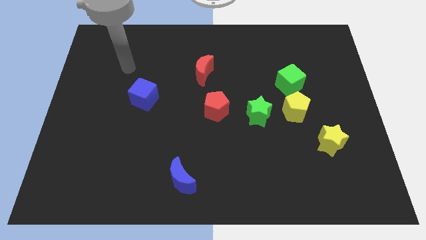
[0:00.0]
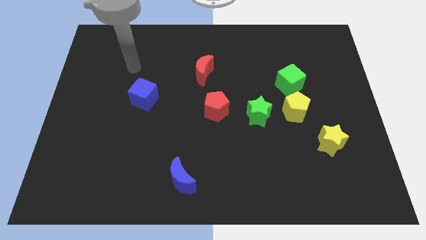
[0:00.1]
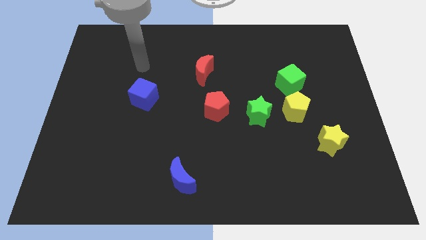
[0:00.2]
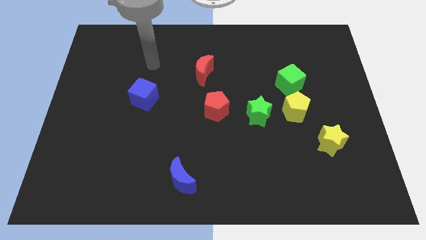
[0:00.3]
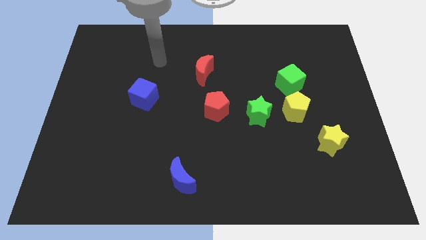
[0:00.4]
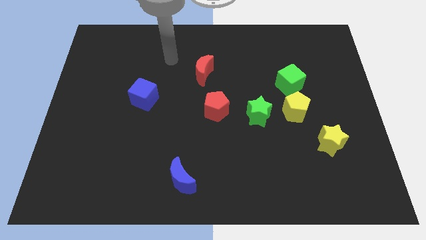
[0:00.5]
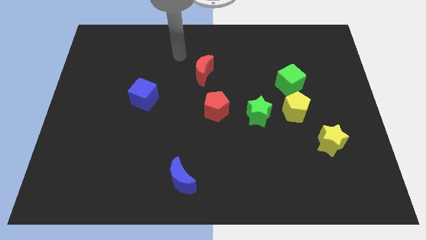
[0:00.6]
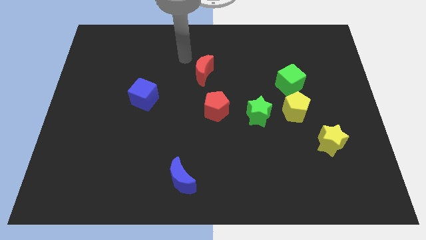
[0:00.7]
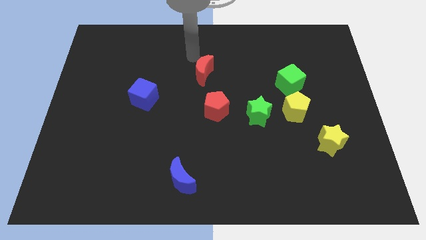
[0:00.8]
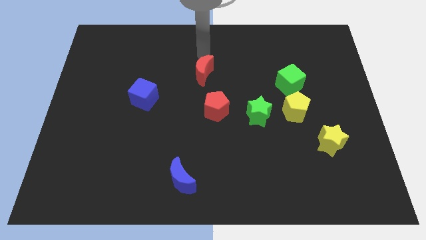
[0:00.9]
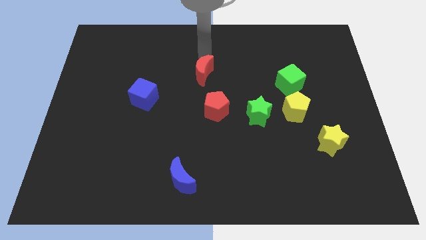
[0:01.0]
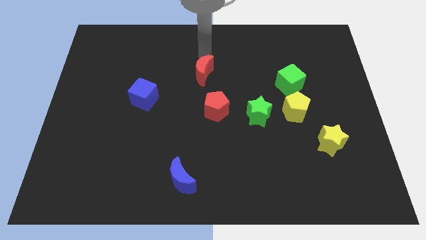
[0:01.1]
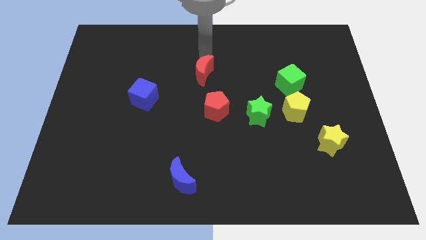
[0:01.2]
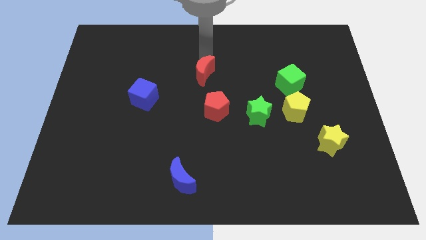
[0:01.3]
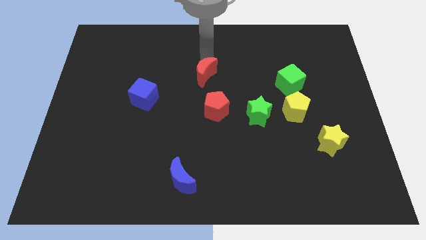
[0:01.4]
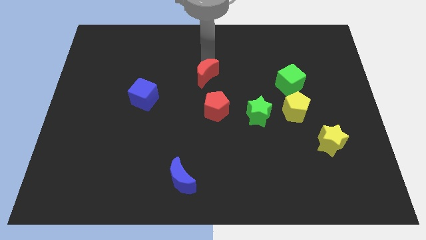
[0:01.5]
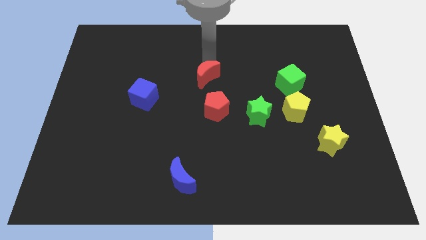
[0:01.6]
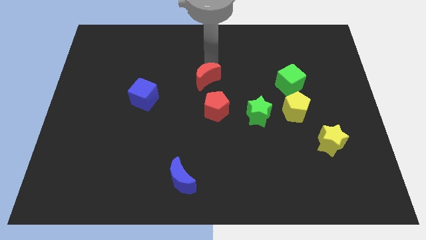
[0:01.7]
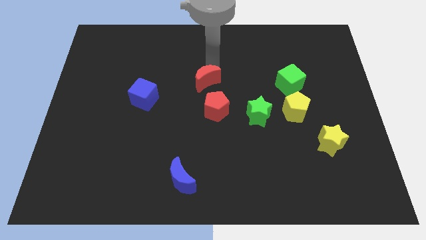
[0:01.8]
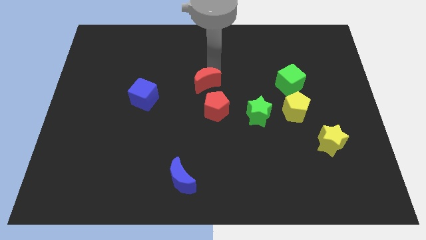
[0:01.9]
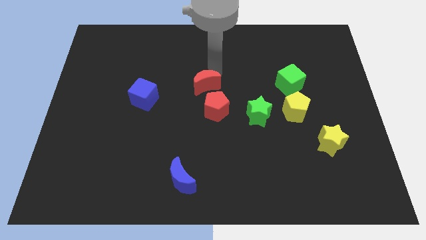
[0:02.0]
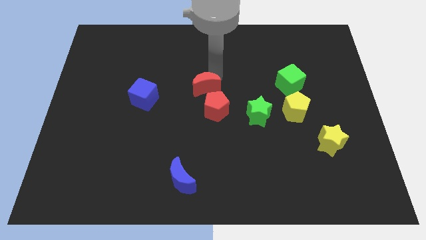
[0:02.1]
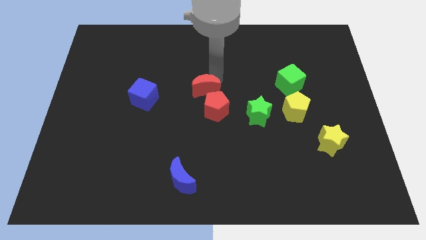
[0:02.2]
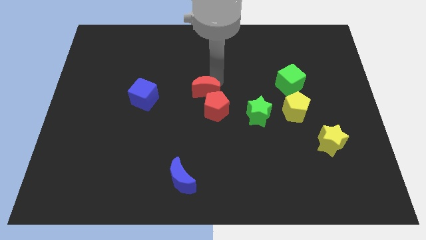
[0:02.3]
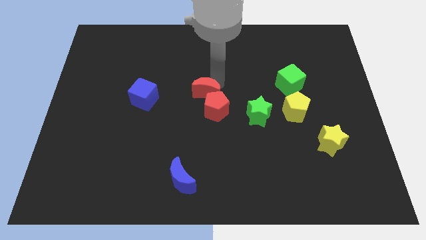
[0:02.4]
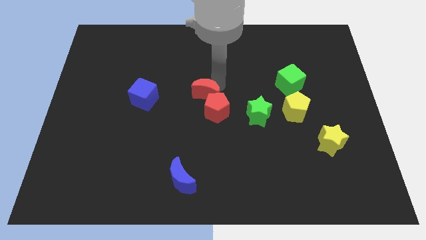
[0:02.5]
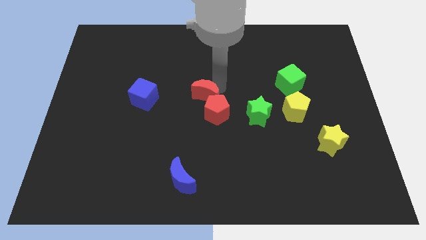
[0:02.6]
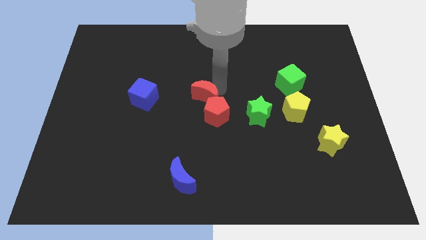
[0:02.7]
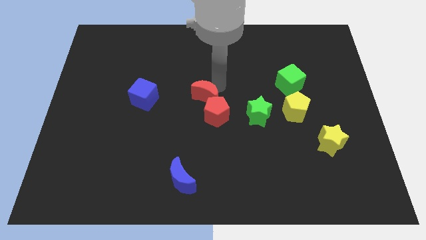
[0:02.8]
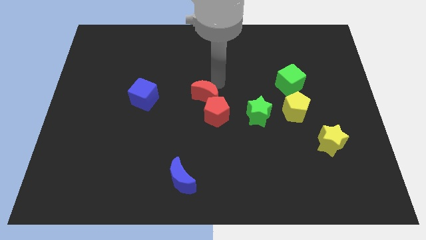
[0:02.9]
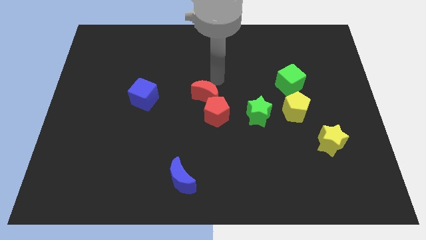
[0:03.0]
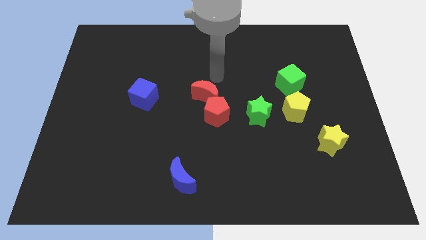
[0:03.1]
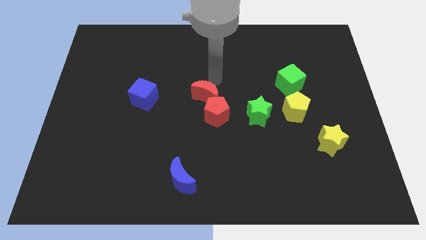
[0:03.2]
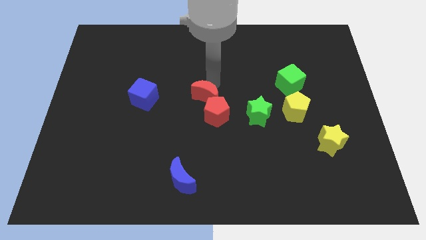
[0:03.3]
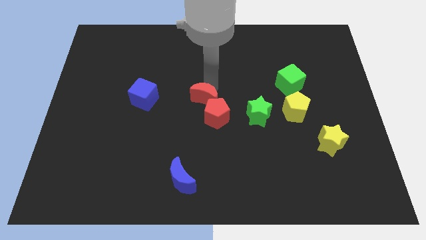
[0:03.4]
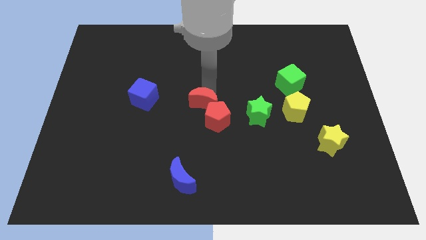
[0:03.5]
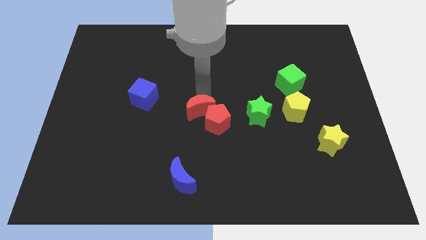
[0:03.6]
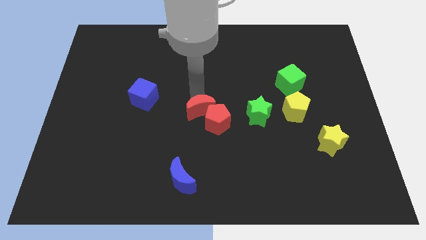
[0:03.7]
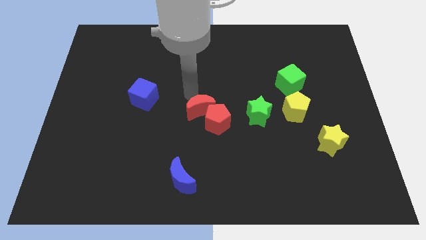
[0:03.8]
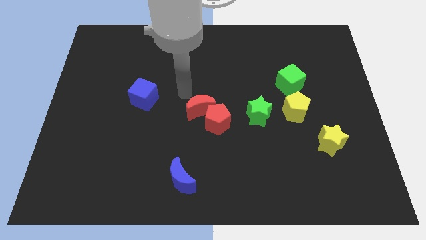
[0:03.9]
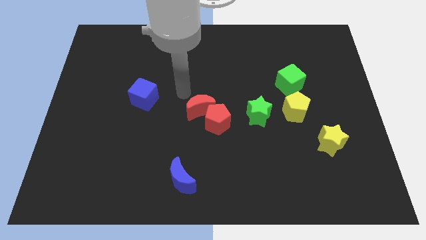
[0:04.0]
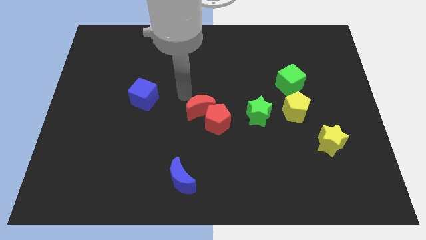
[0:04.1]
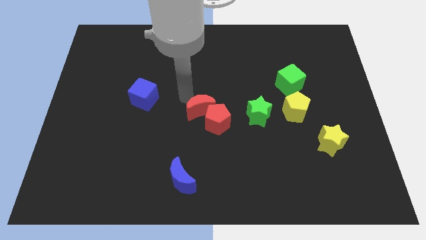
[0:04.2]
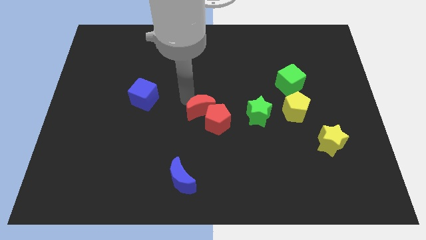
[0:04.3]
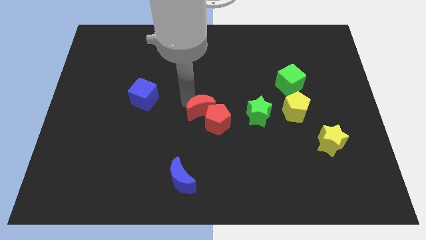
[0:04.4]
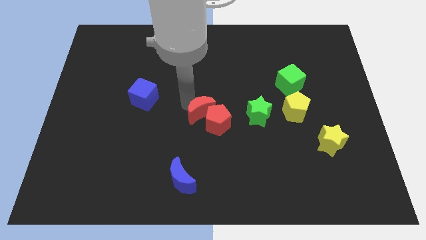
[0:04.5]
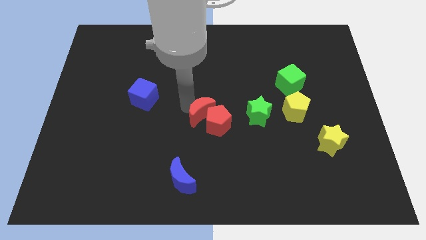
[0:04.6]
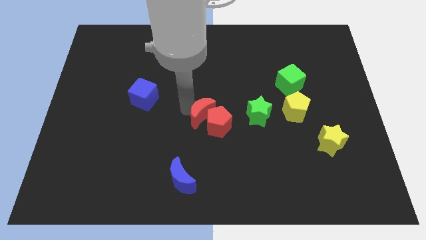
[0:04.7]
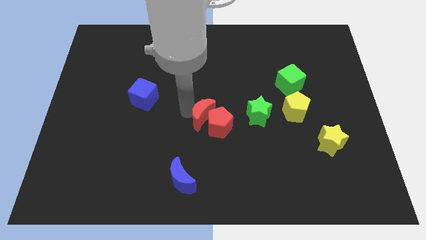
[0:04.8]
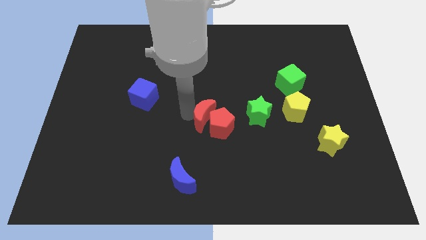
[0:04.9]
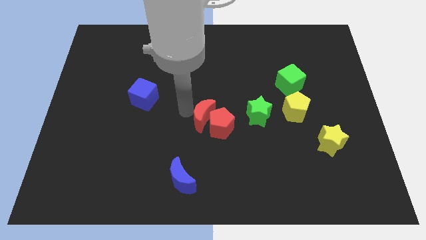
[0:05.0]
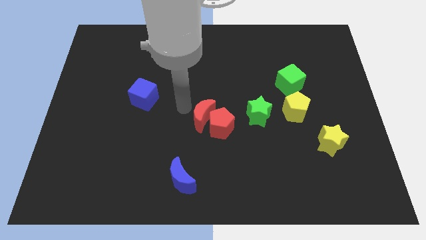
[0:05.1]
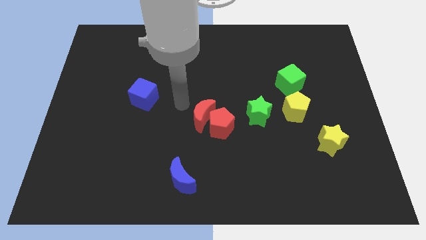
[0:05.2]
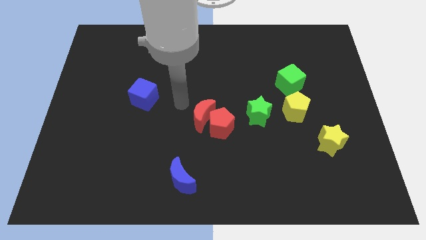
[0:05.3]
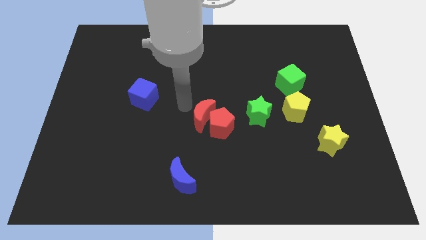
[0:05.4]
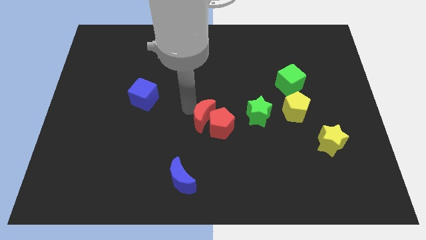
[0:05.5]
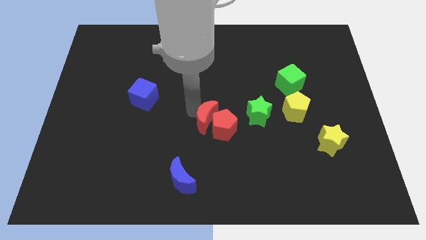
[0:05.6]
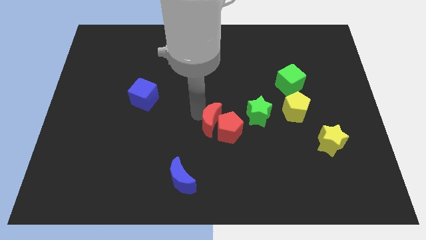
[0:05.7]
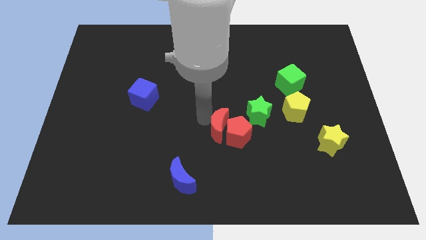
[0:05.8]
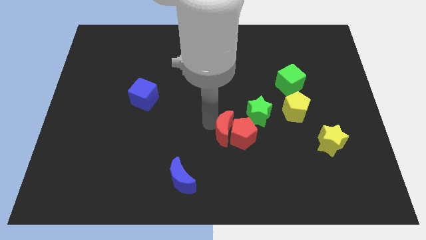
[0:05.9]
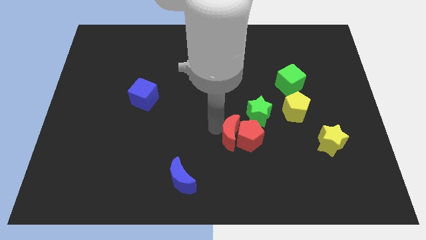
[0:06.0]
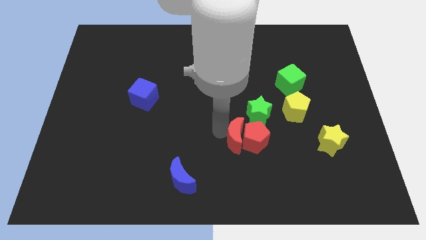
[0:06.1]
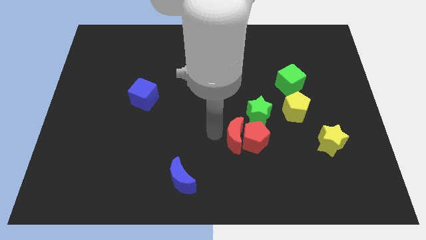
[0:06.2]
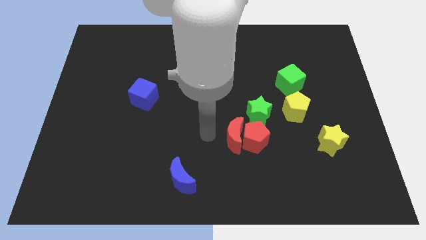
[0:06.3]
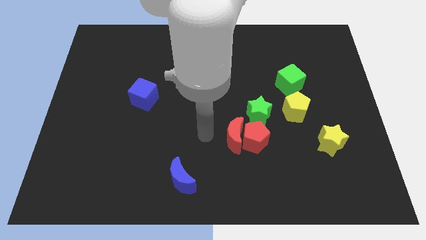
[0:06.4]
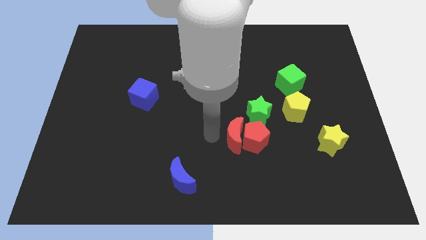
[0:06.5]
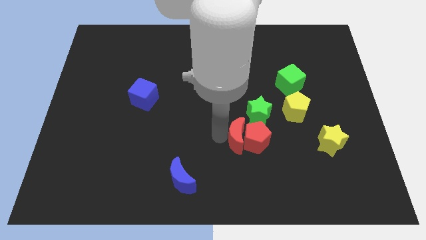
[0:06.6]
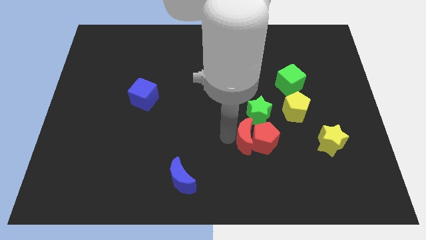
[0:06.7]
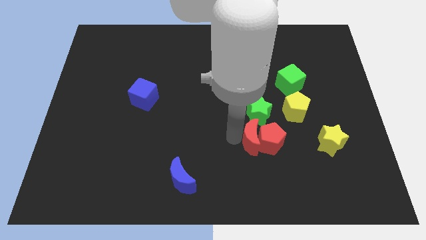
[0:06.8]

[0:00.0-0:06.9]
slide the red moon diagonally downwards and to the right

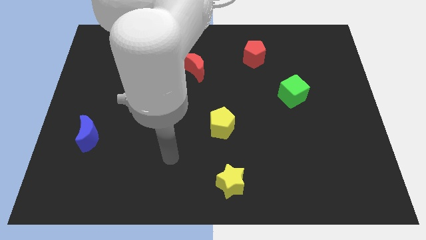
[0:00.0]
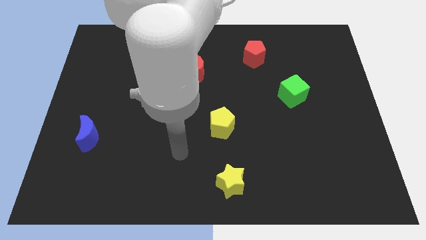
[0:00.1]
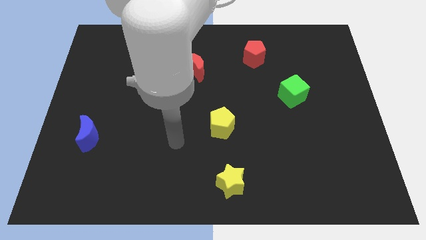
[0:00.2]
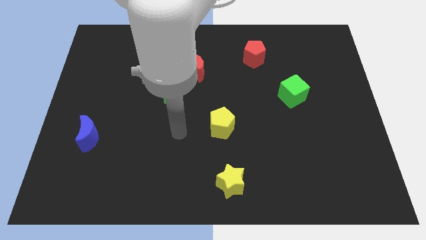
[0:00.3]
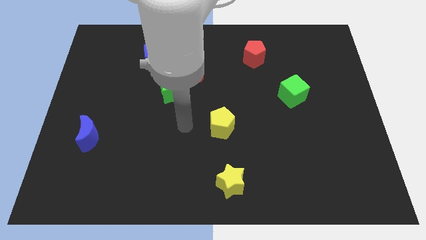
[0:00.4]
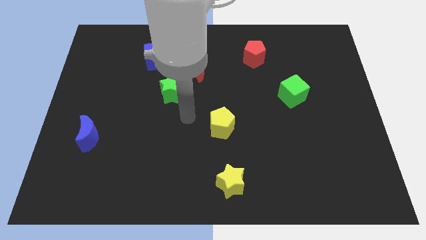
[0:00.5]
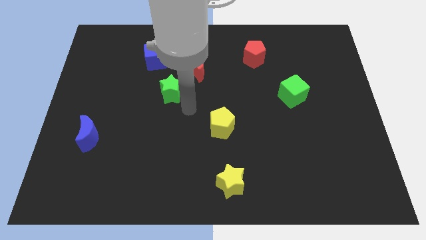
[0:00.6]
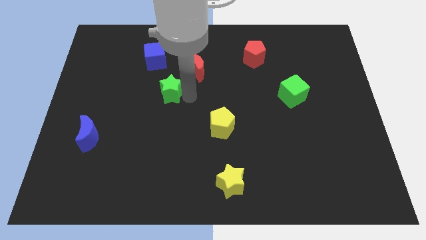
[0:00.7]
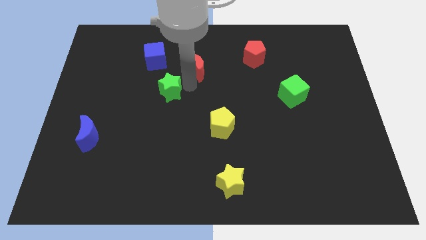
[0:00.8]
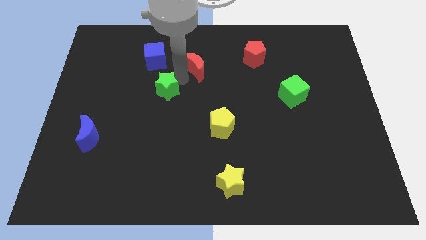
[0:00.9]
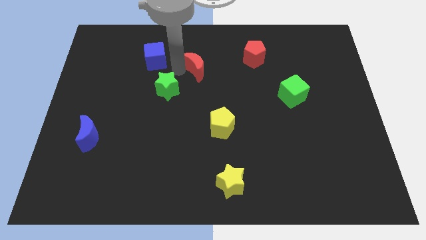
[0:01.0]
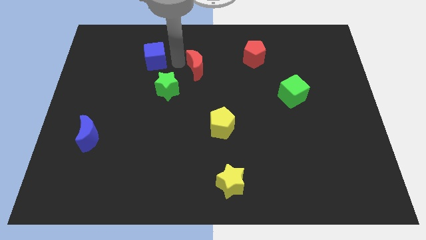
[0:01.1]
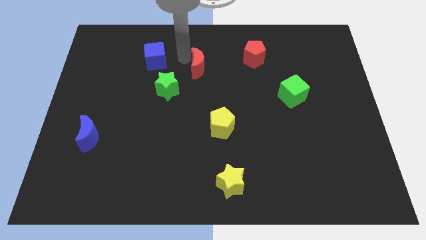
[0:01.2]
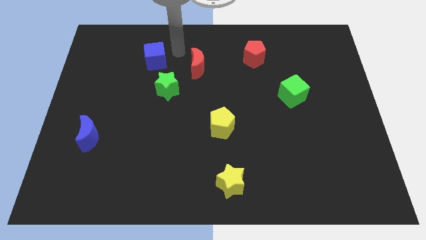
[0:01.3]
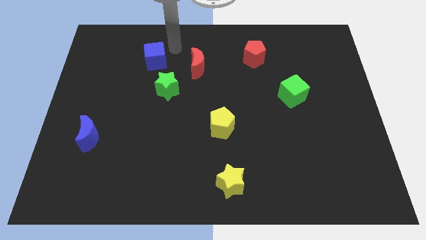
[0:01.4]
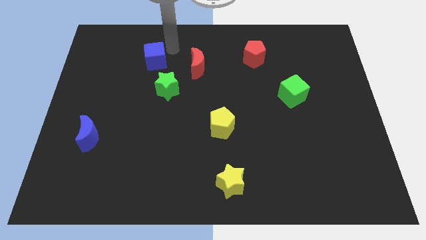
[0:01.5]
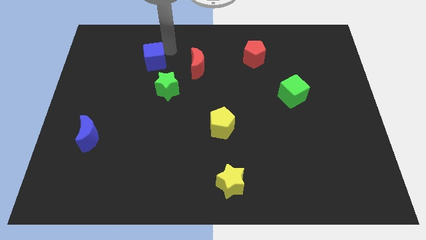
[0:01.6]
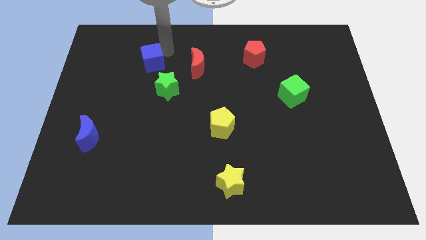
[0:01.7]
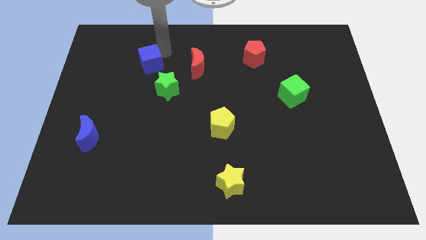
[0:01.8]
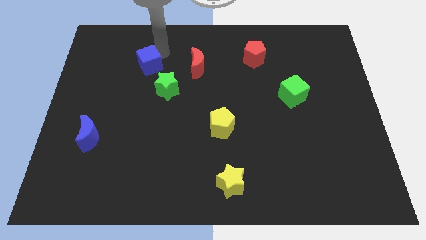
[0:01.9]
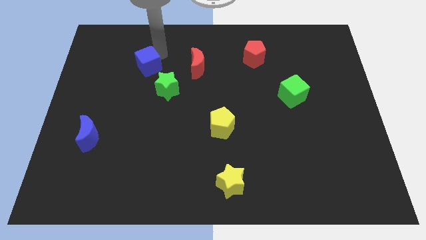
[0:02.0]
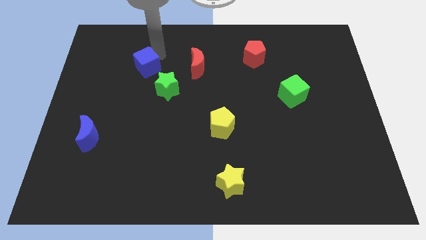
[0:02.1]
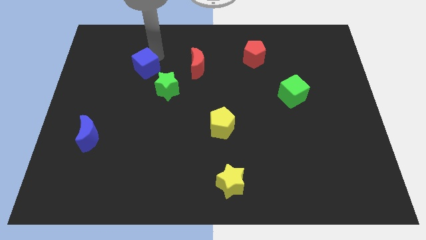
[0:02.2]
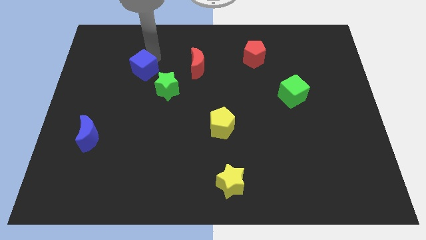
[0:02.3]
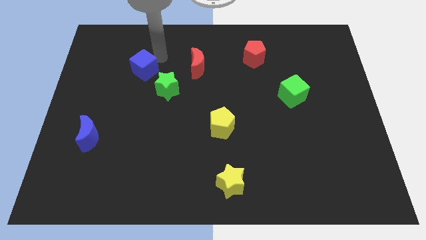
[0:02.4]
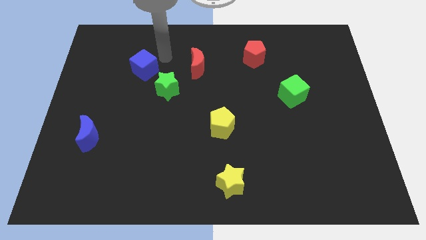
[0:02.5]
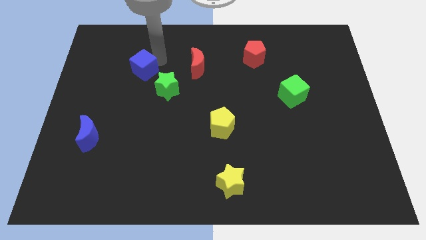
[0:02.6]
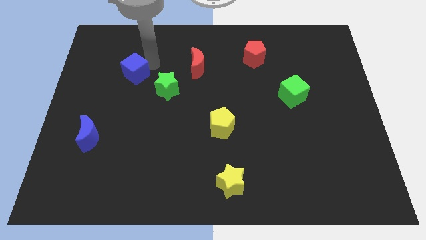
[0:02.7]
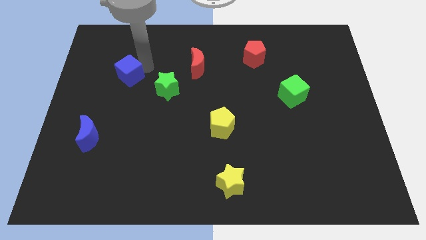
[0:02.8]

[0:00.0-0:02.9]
slightly push the blue cube diagonally down and left
